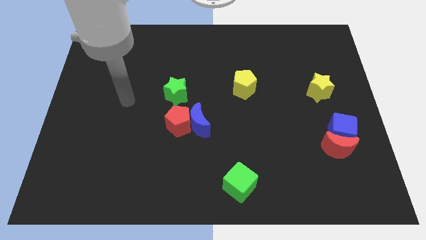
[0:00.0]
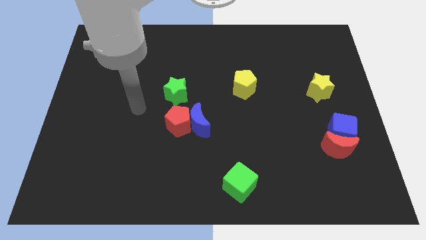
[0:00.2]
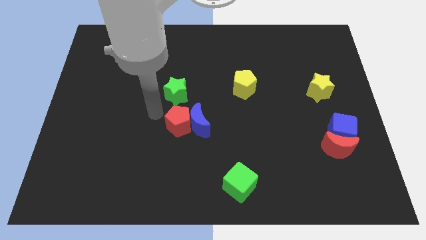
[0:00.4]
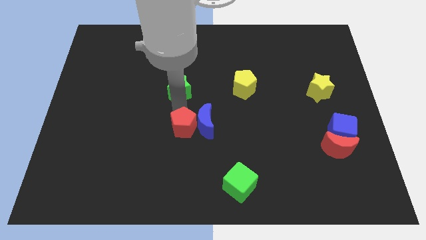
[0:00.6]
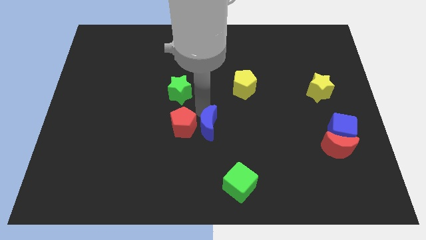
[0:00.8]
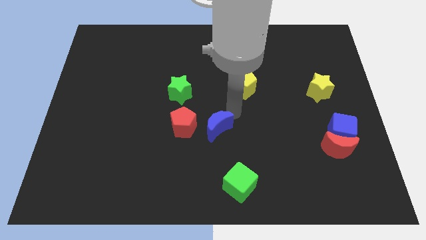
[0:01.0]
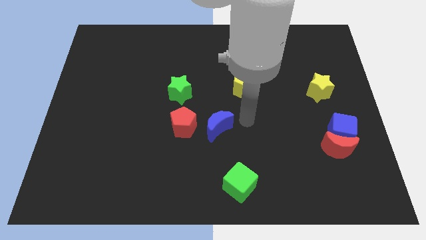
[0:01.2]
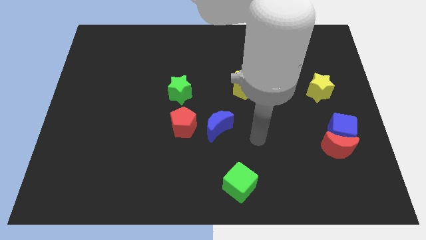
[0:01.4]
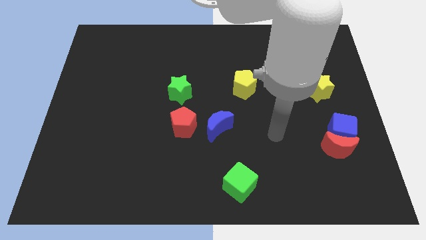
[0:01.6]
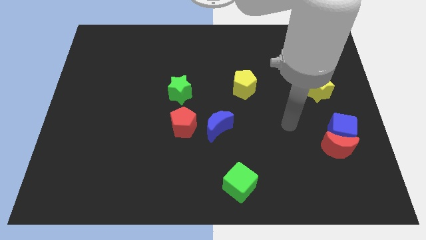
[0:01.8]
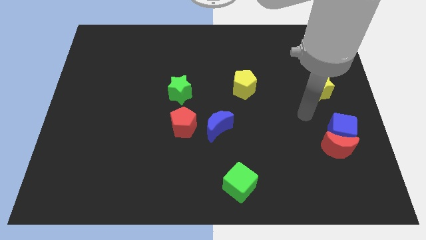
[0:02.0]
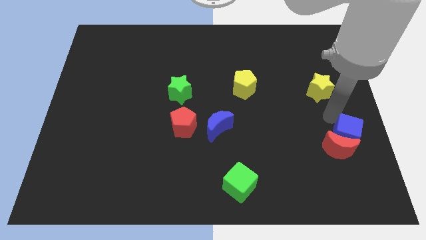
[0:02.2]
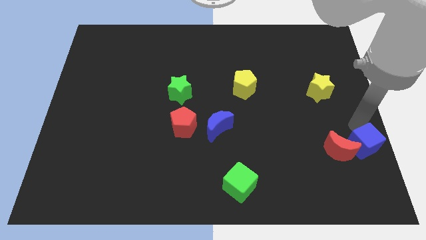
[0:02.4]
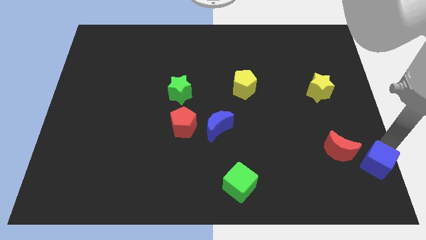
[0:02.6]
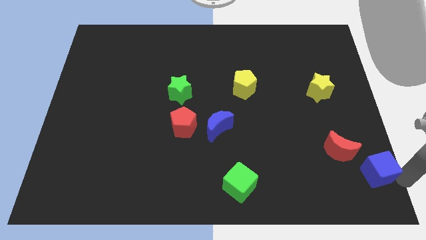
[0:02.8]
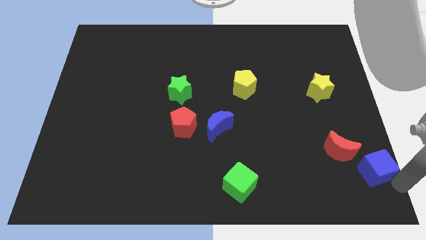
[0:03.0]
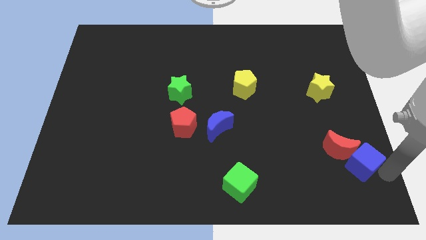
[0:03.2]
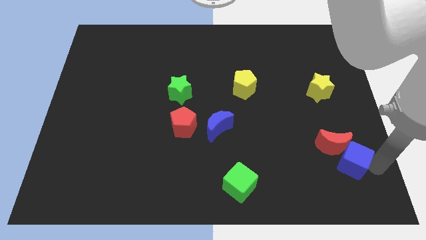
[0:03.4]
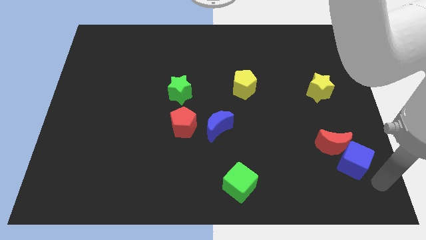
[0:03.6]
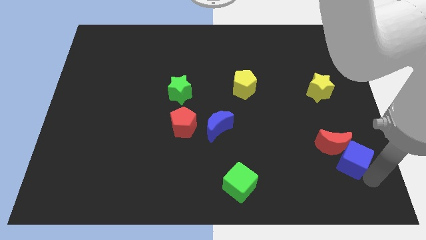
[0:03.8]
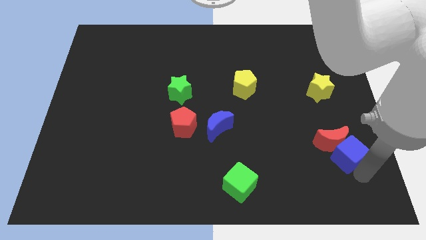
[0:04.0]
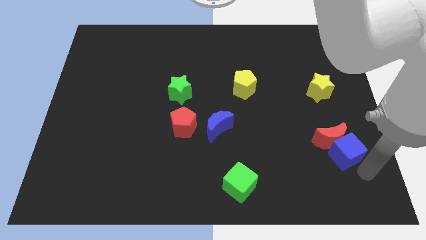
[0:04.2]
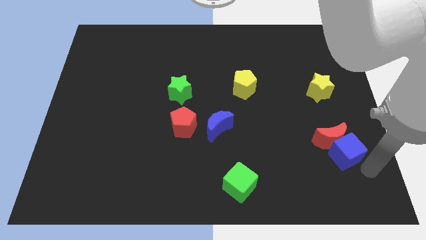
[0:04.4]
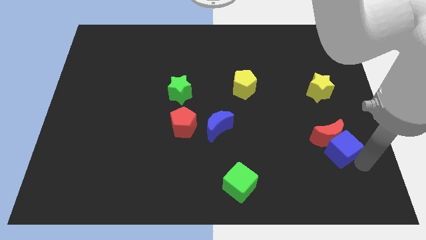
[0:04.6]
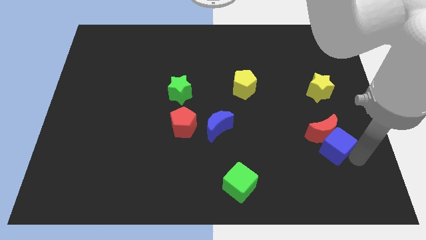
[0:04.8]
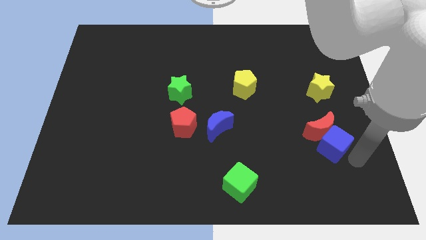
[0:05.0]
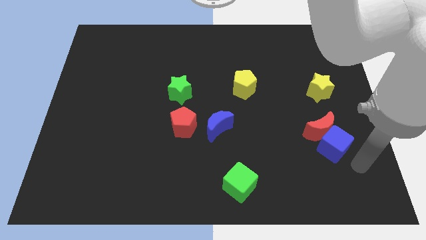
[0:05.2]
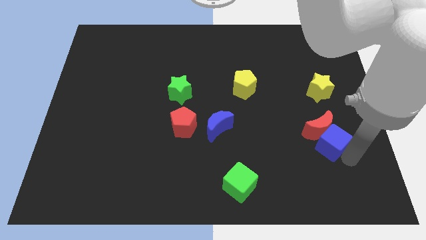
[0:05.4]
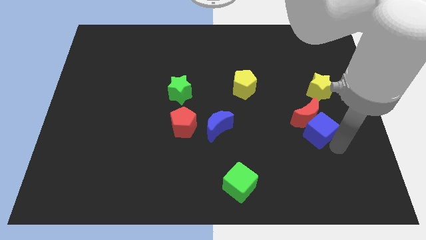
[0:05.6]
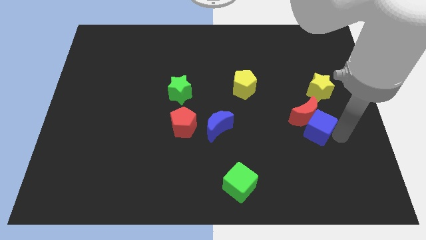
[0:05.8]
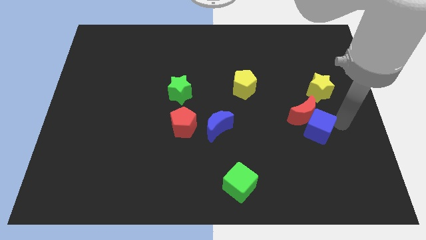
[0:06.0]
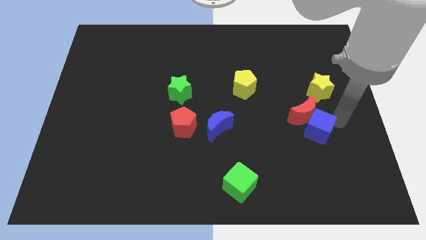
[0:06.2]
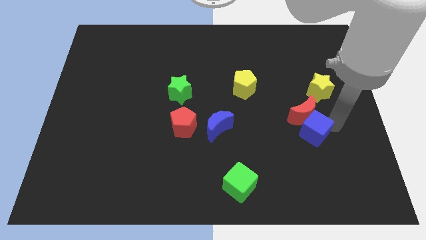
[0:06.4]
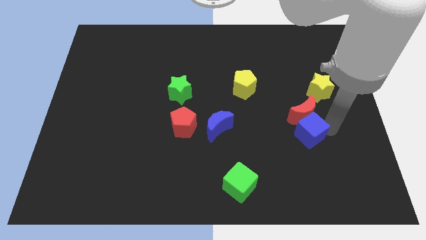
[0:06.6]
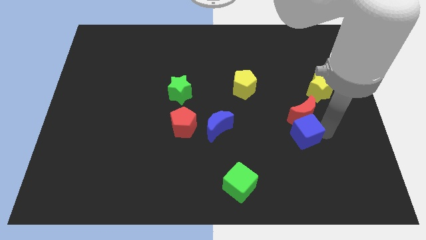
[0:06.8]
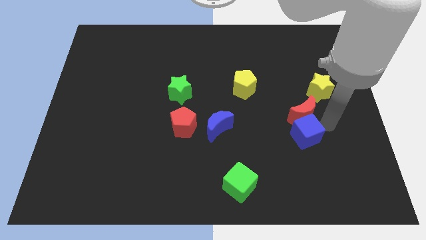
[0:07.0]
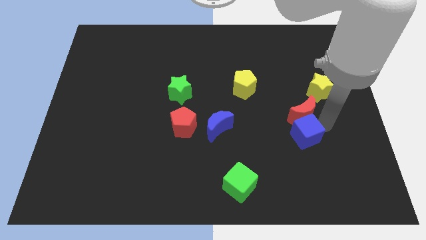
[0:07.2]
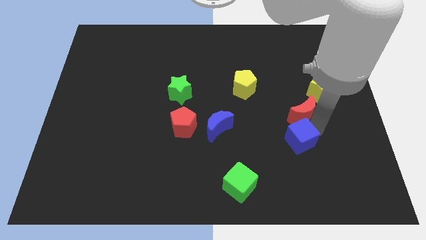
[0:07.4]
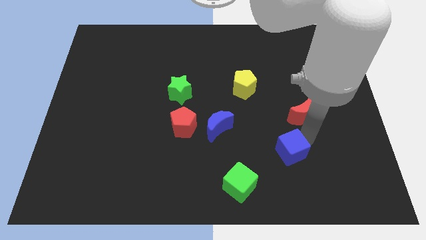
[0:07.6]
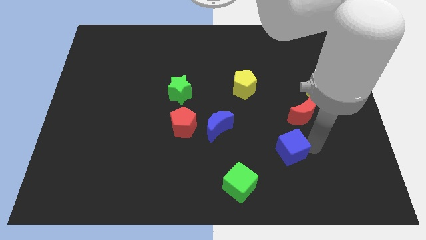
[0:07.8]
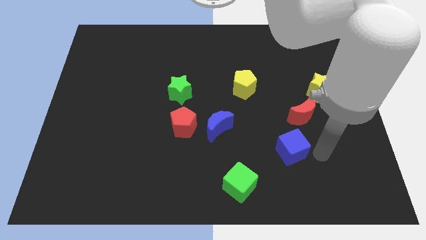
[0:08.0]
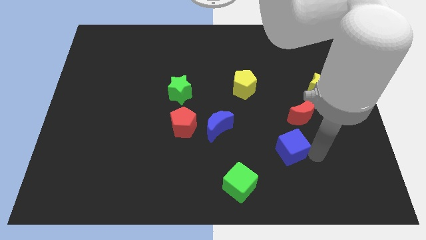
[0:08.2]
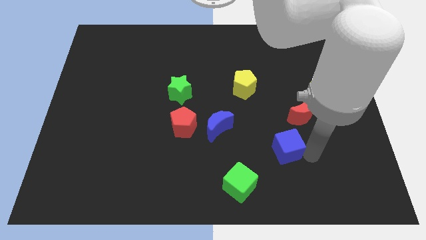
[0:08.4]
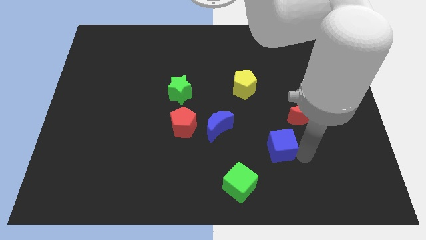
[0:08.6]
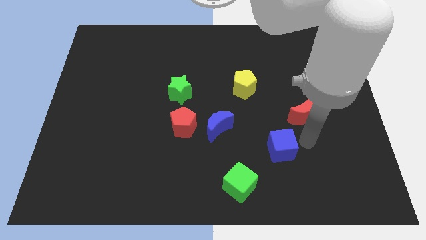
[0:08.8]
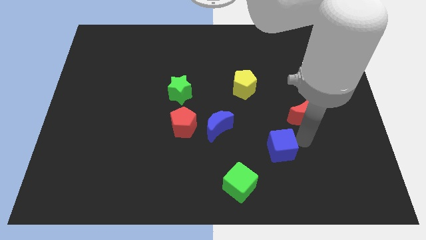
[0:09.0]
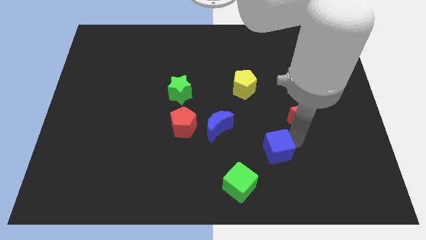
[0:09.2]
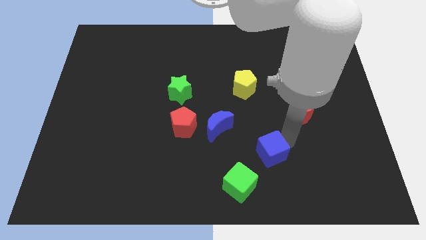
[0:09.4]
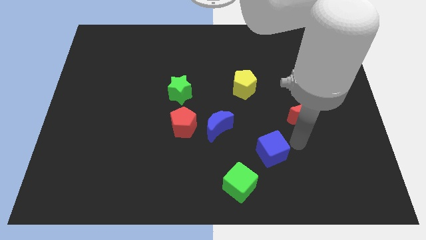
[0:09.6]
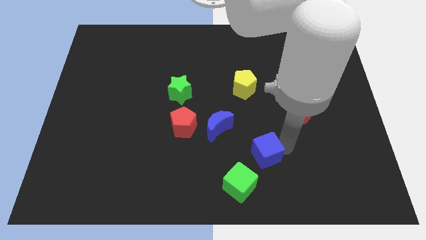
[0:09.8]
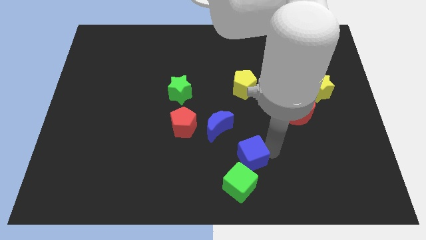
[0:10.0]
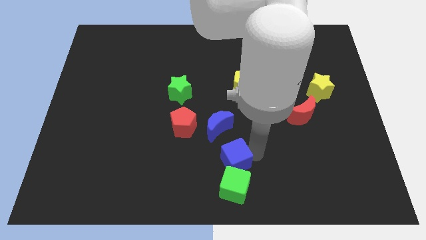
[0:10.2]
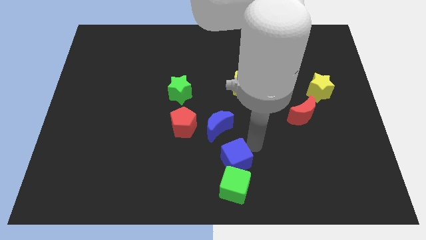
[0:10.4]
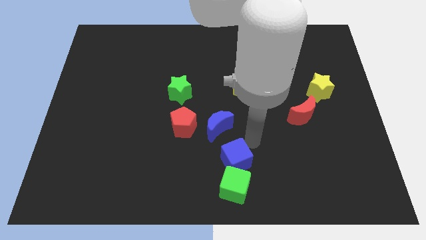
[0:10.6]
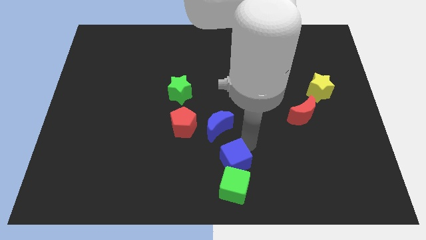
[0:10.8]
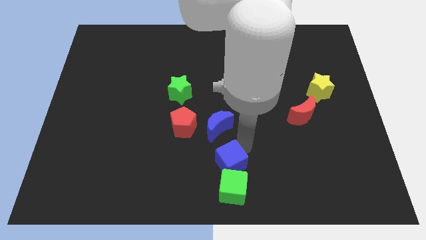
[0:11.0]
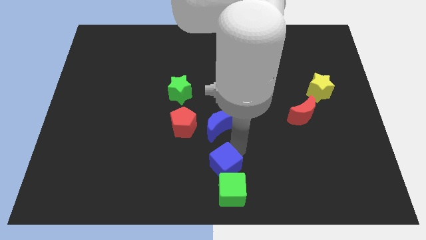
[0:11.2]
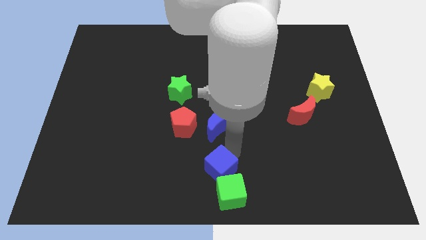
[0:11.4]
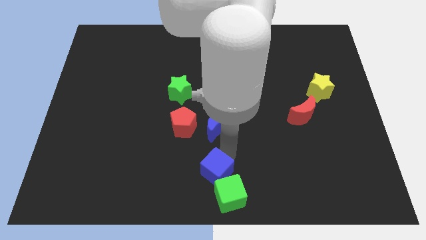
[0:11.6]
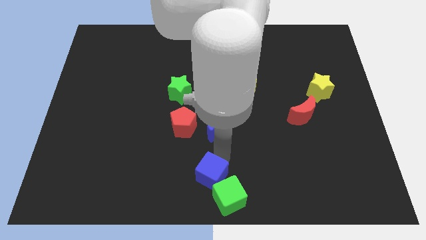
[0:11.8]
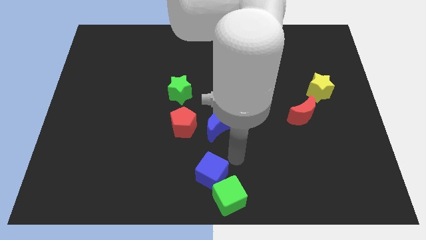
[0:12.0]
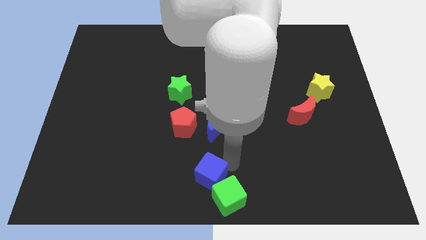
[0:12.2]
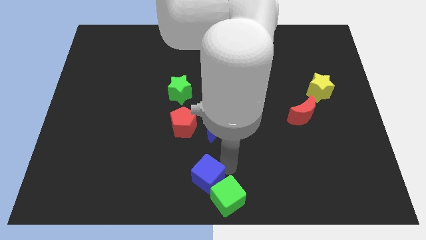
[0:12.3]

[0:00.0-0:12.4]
push the blue cube left of the green cube

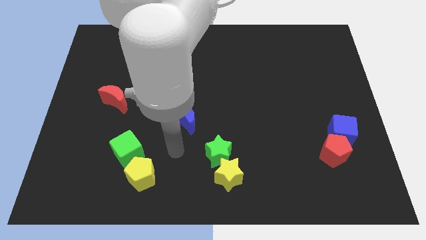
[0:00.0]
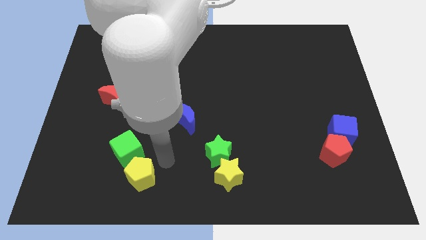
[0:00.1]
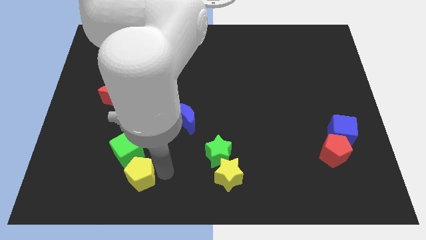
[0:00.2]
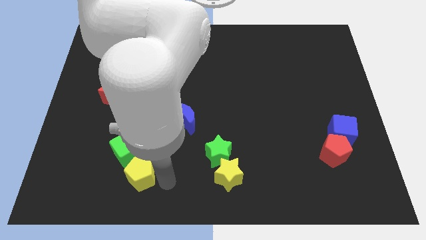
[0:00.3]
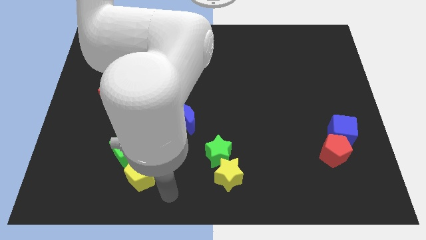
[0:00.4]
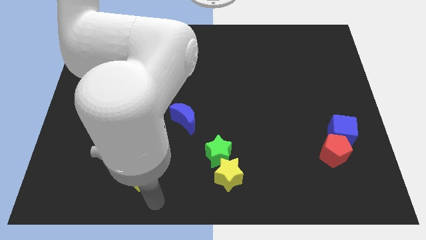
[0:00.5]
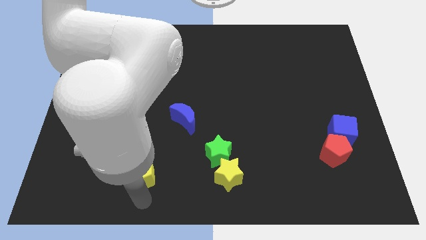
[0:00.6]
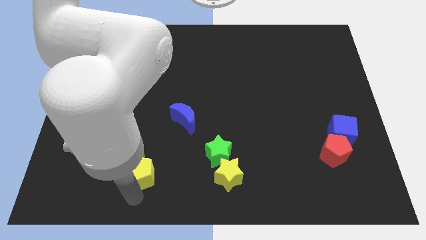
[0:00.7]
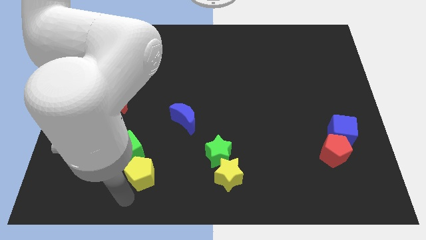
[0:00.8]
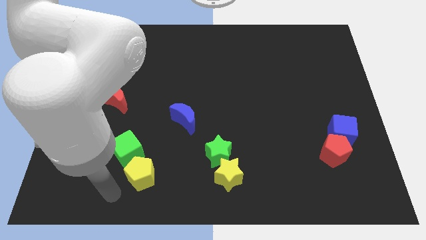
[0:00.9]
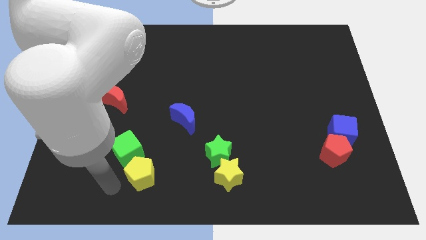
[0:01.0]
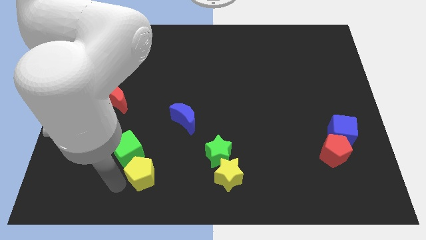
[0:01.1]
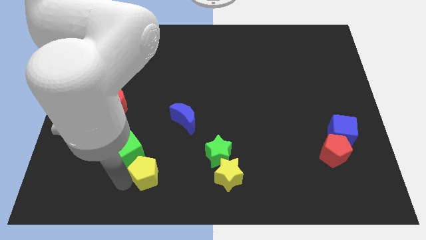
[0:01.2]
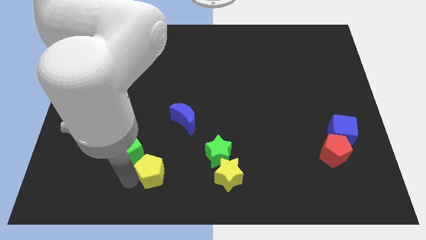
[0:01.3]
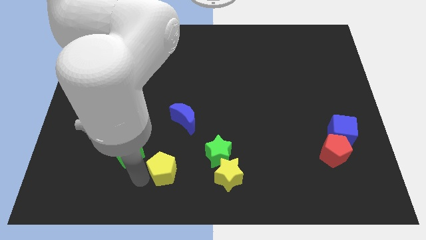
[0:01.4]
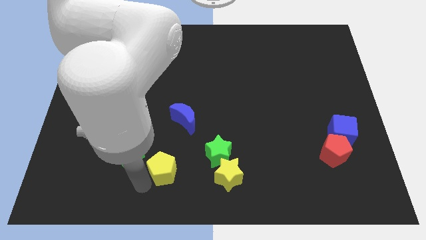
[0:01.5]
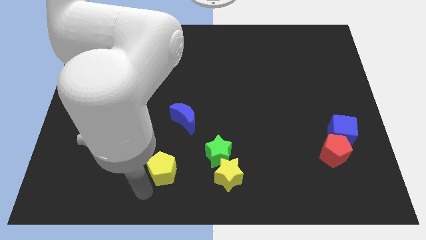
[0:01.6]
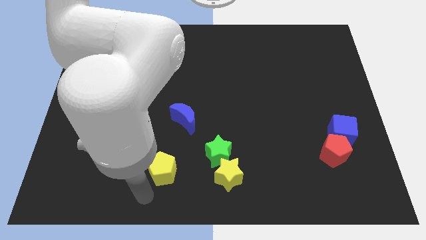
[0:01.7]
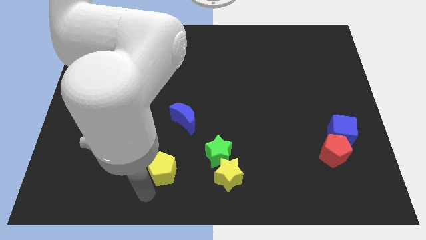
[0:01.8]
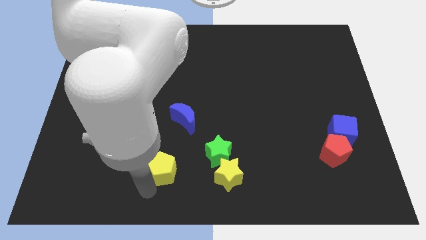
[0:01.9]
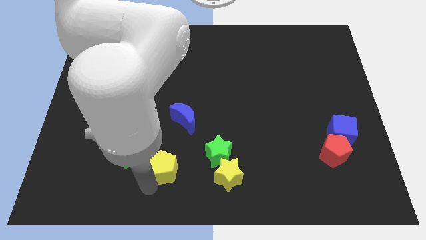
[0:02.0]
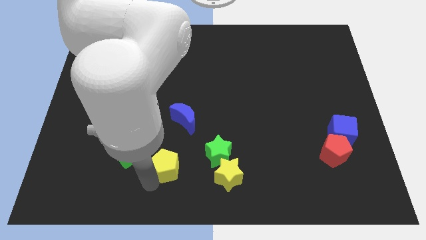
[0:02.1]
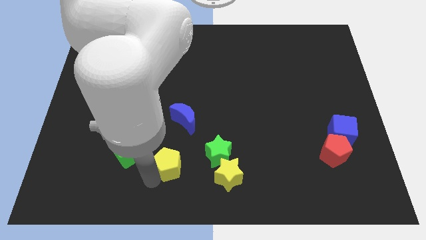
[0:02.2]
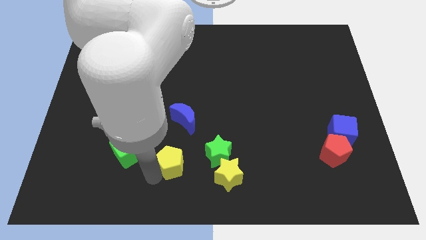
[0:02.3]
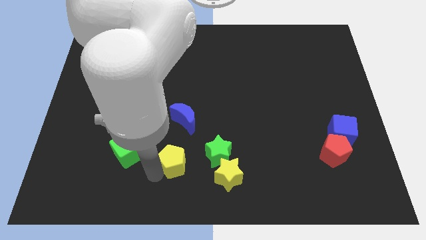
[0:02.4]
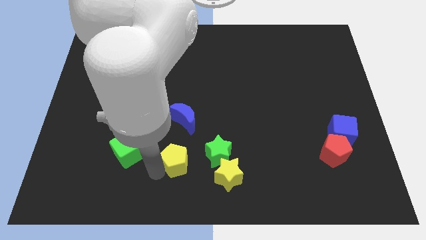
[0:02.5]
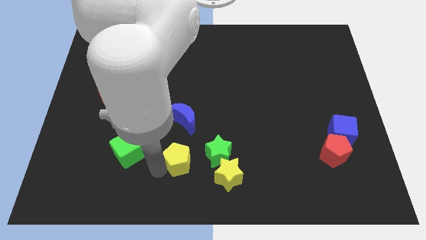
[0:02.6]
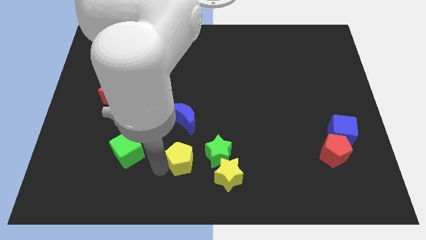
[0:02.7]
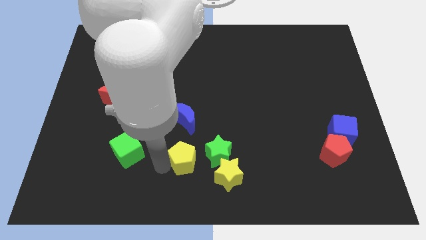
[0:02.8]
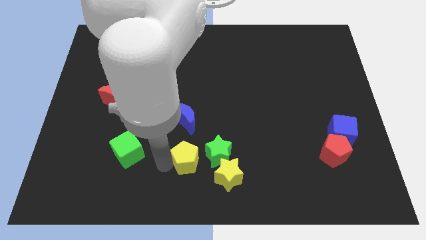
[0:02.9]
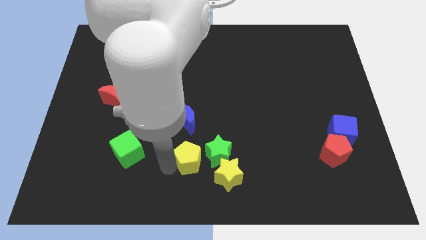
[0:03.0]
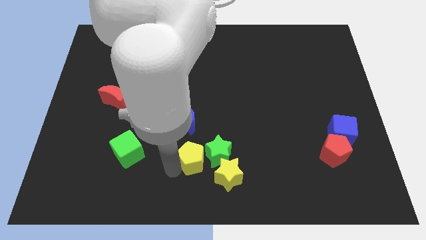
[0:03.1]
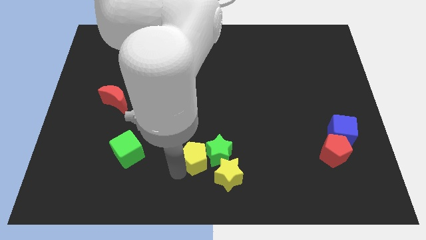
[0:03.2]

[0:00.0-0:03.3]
push the yellow pentagon to the top left of the green star
